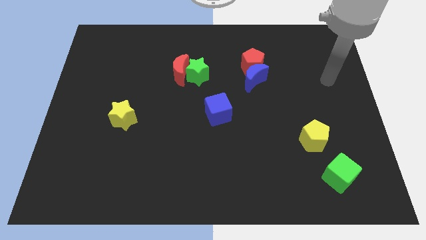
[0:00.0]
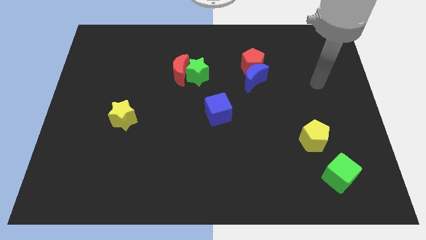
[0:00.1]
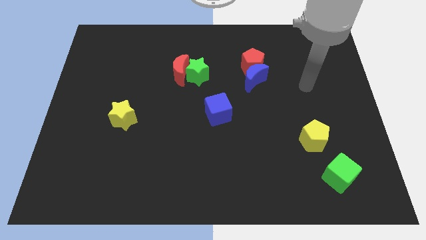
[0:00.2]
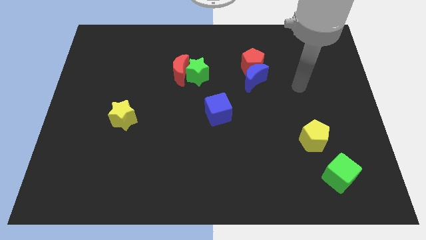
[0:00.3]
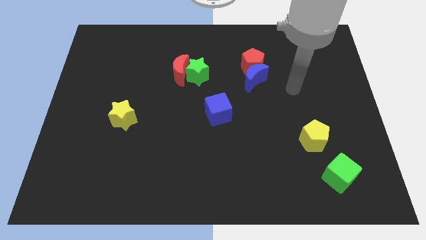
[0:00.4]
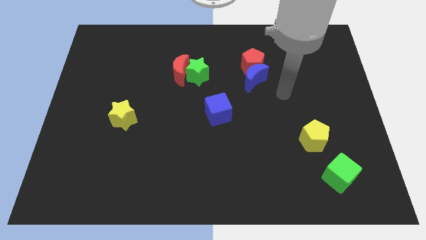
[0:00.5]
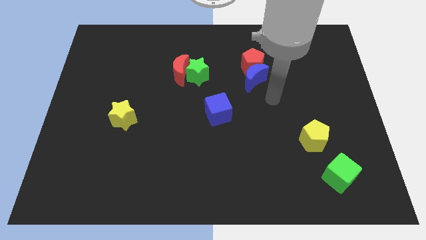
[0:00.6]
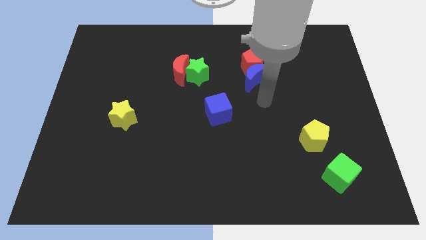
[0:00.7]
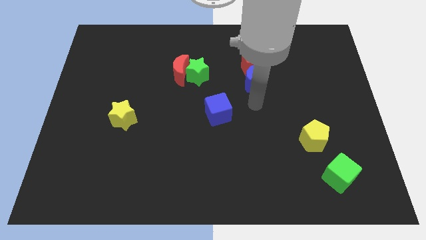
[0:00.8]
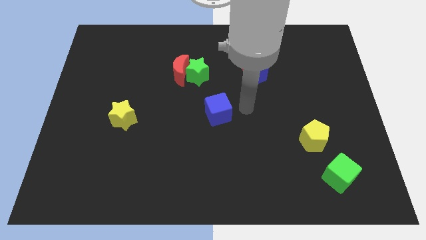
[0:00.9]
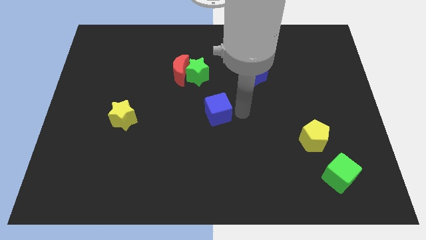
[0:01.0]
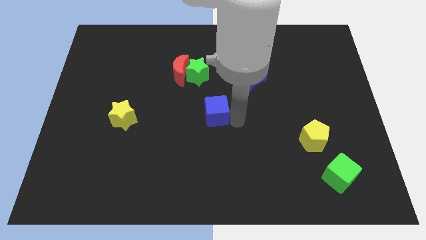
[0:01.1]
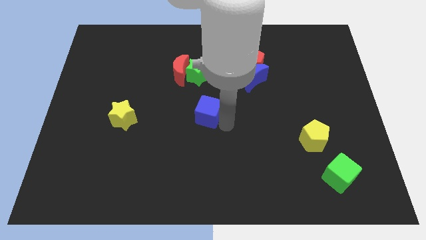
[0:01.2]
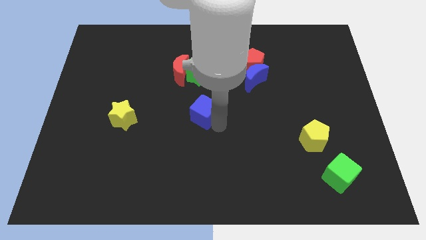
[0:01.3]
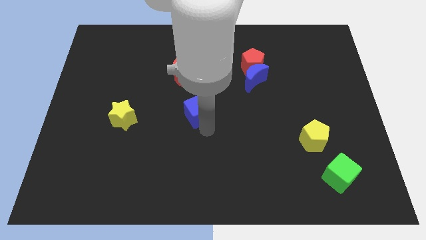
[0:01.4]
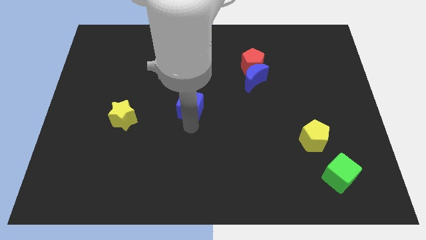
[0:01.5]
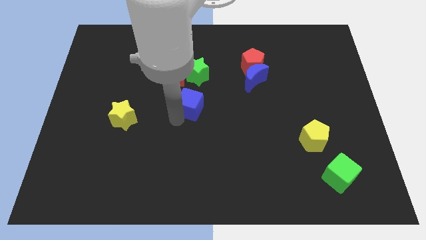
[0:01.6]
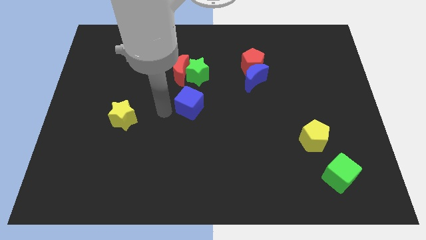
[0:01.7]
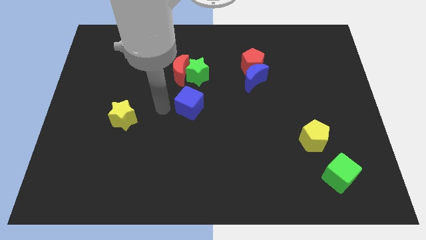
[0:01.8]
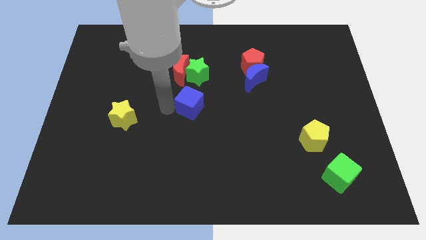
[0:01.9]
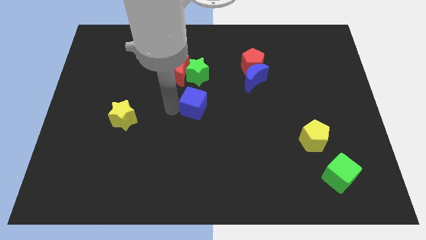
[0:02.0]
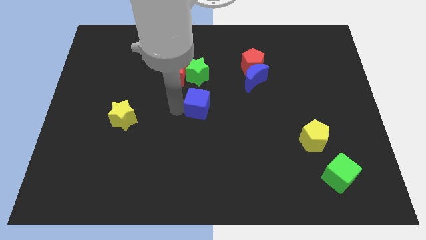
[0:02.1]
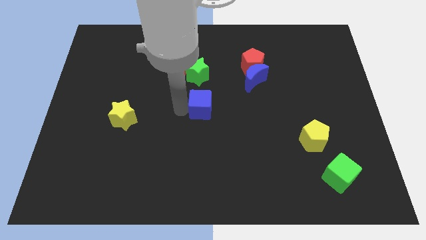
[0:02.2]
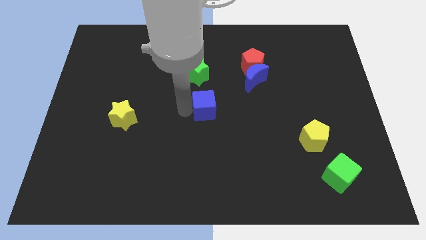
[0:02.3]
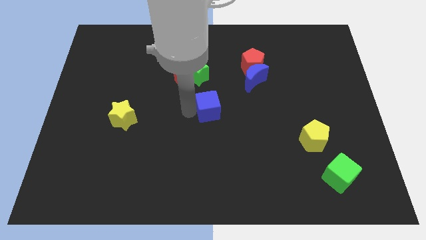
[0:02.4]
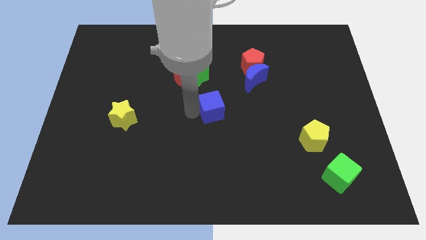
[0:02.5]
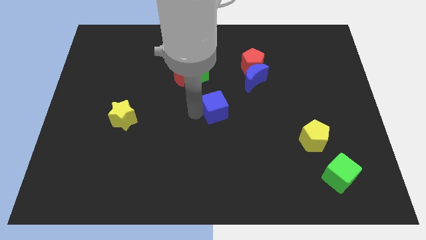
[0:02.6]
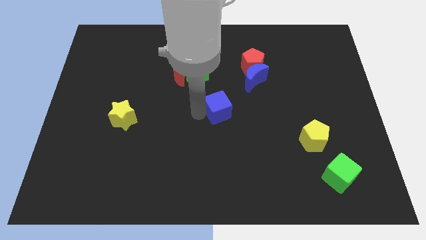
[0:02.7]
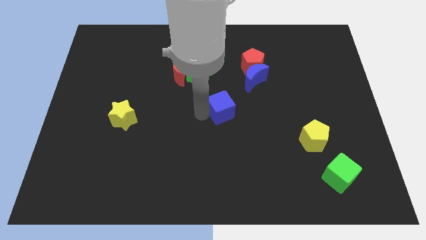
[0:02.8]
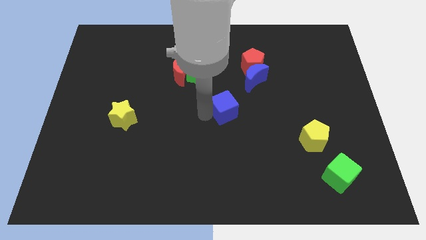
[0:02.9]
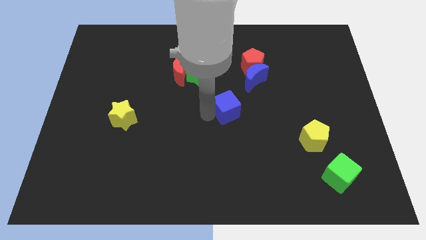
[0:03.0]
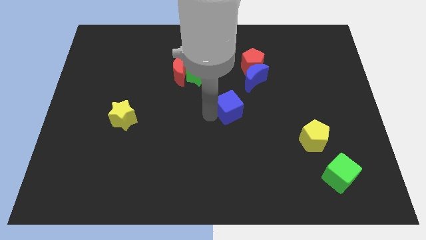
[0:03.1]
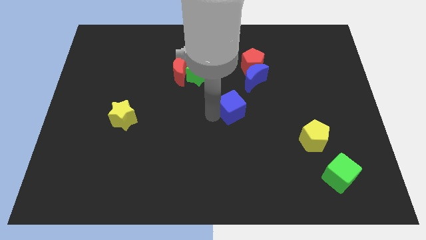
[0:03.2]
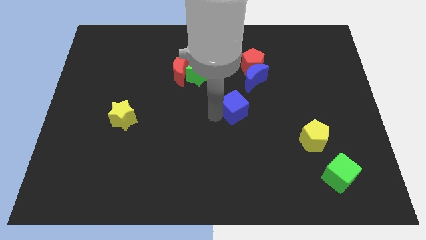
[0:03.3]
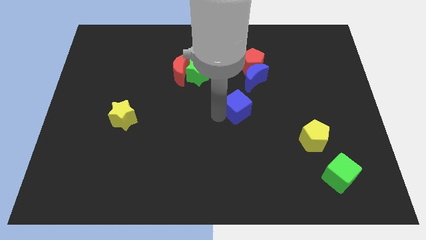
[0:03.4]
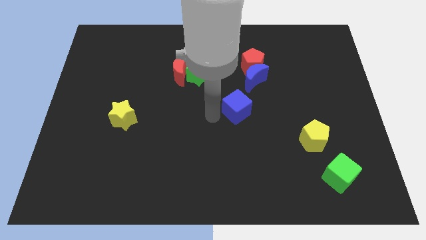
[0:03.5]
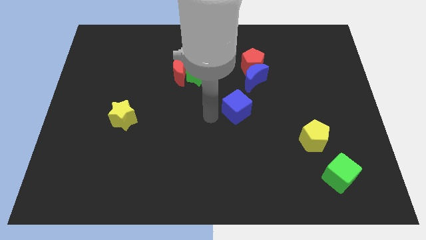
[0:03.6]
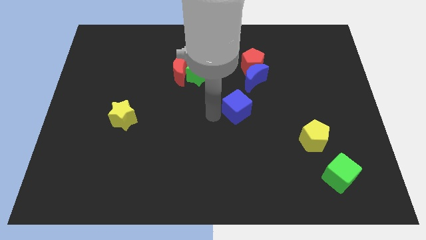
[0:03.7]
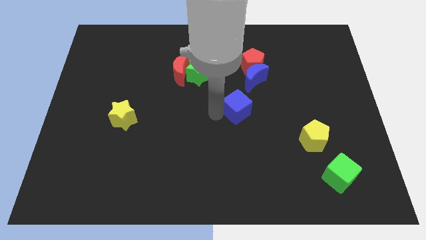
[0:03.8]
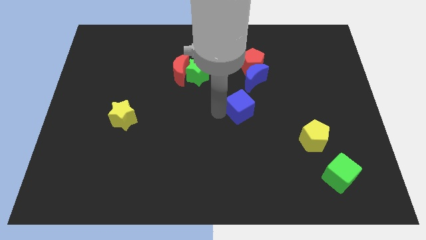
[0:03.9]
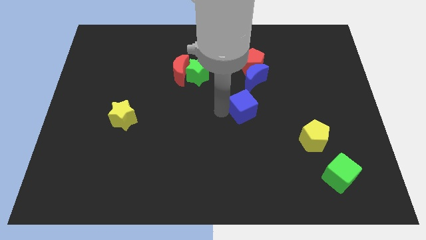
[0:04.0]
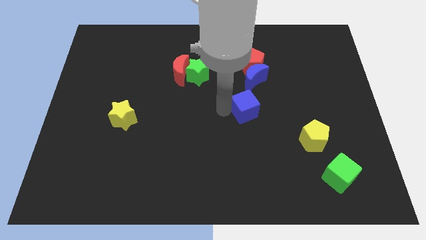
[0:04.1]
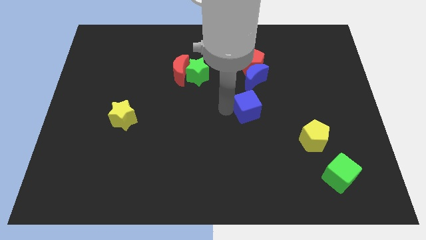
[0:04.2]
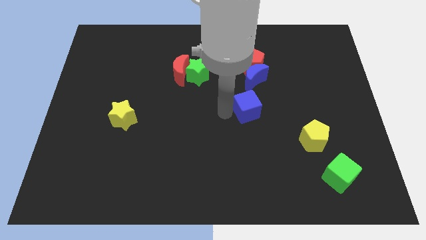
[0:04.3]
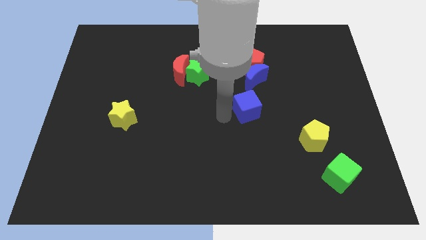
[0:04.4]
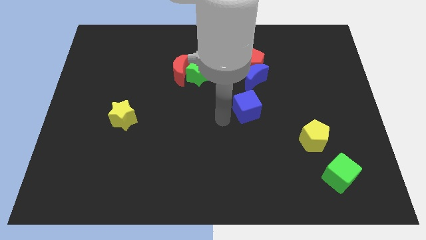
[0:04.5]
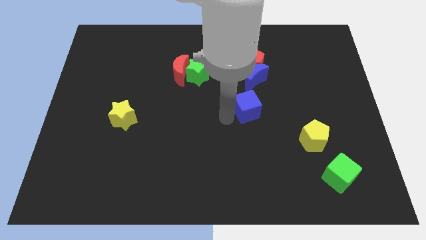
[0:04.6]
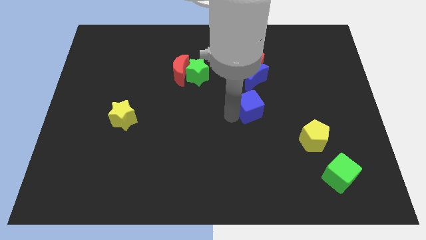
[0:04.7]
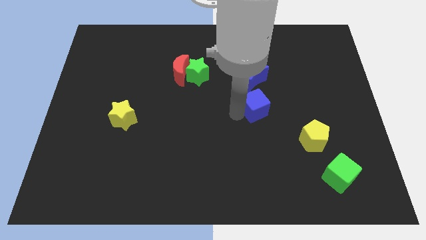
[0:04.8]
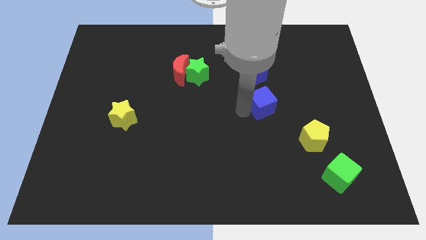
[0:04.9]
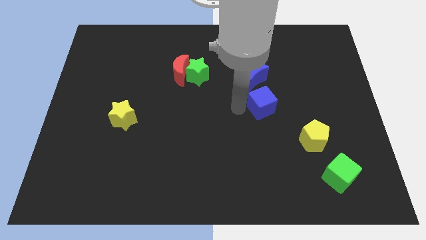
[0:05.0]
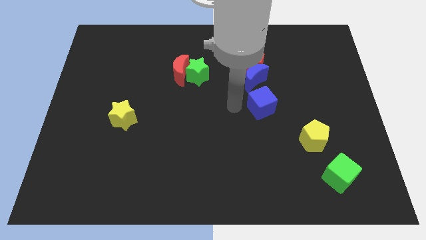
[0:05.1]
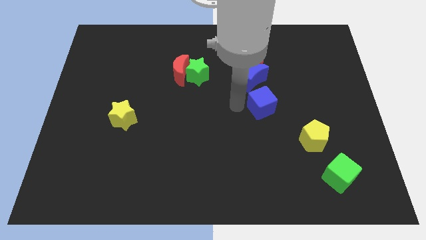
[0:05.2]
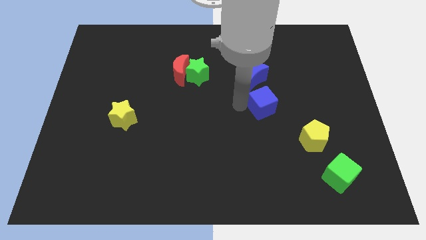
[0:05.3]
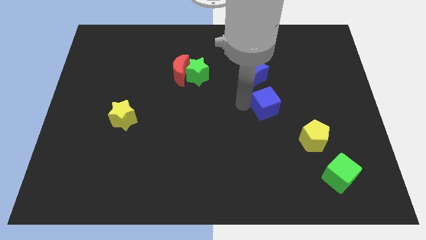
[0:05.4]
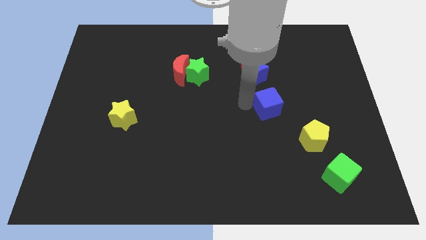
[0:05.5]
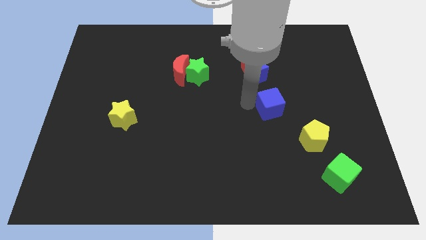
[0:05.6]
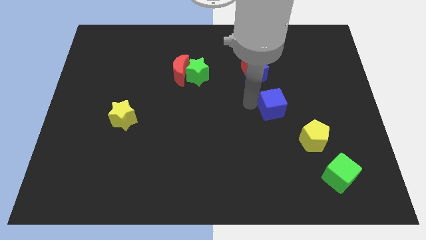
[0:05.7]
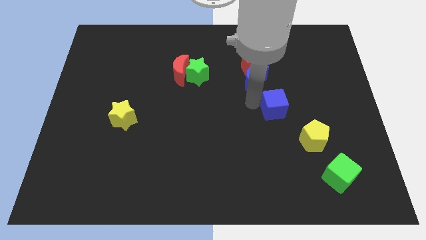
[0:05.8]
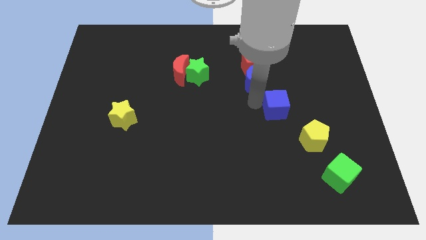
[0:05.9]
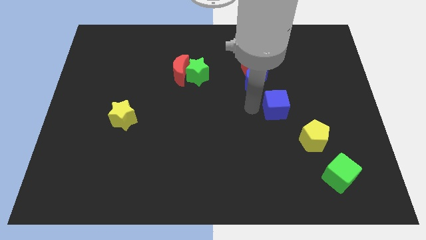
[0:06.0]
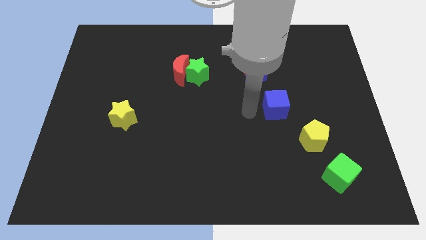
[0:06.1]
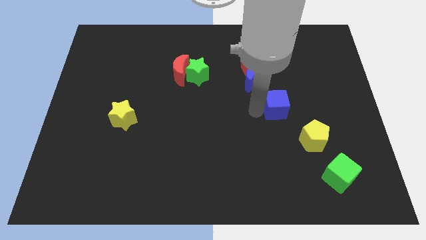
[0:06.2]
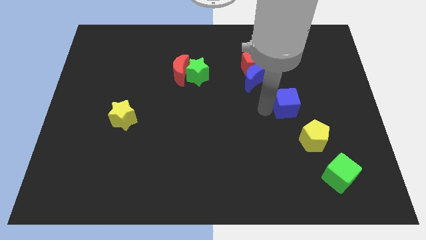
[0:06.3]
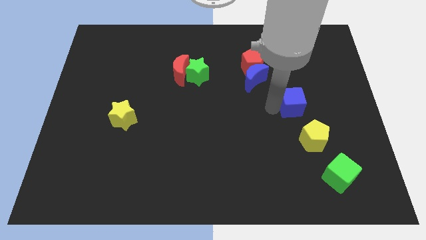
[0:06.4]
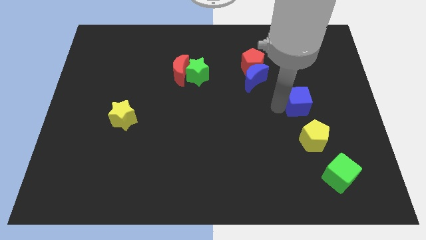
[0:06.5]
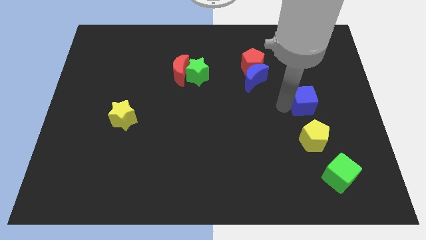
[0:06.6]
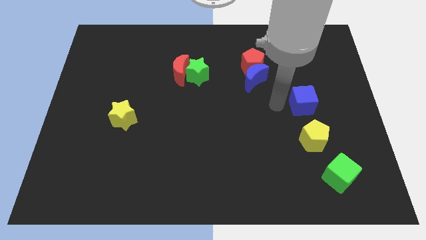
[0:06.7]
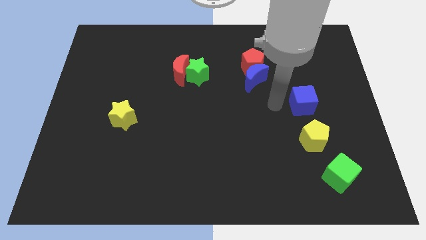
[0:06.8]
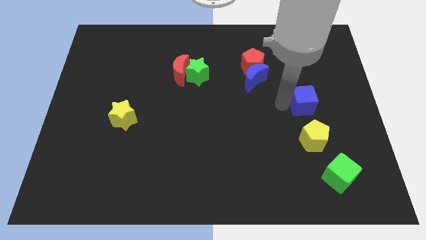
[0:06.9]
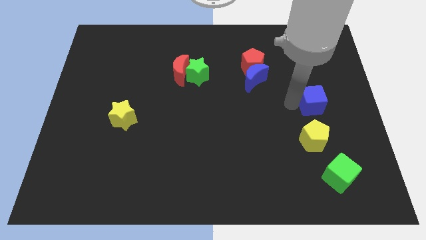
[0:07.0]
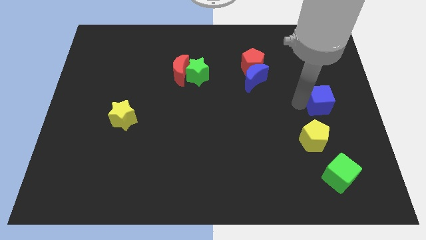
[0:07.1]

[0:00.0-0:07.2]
move the blue cube to the right side
